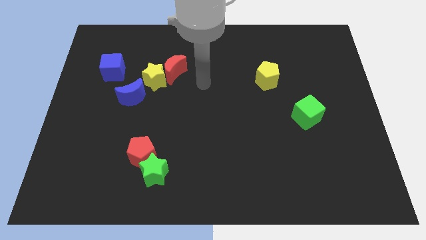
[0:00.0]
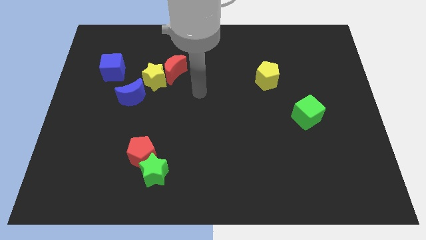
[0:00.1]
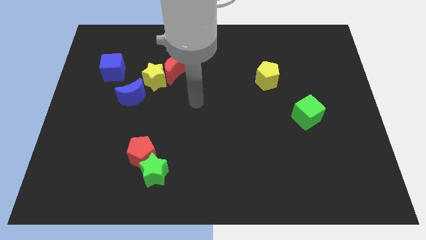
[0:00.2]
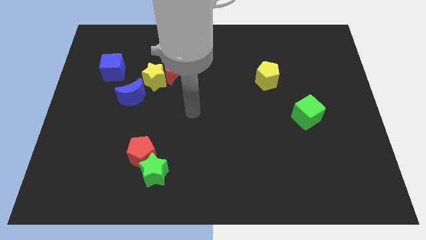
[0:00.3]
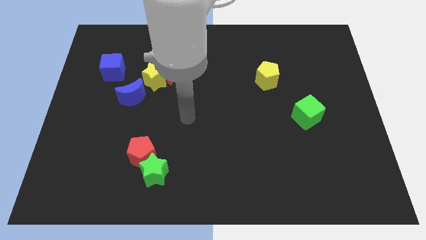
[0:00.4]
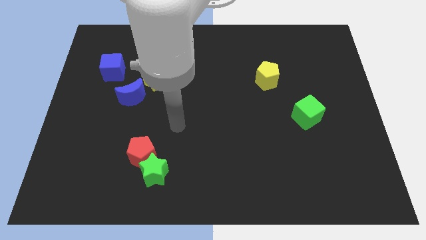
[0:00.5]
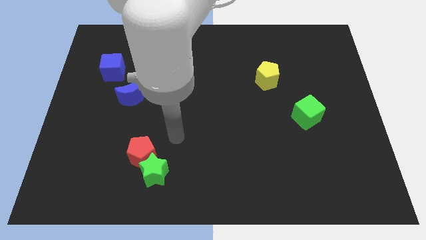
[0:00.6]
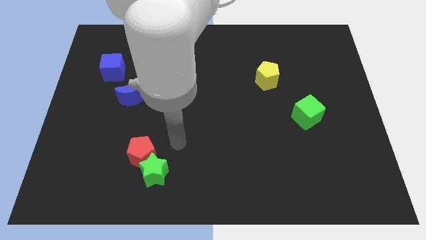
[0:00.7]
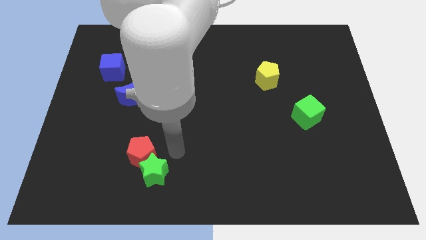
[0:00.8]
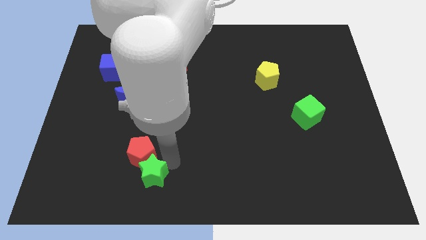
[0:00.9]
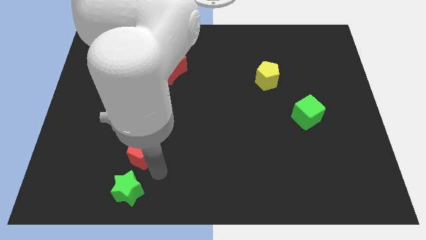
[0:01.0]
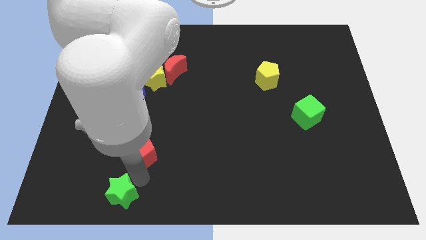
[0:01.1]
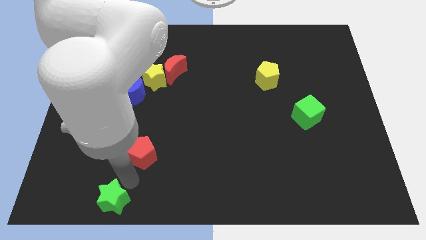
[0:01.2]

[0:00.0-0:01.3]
pull the red pentagon apart from the green star

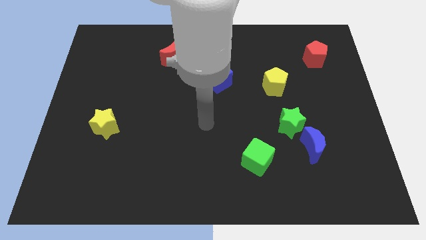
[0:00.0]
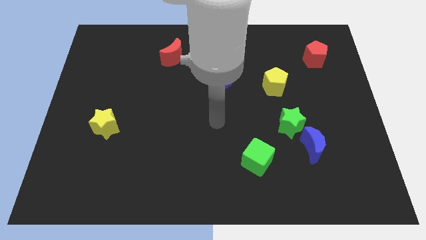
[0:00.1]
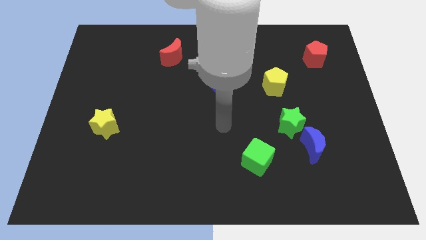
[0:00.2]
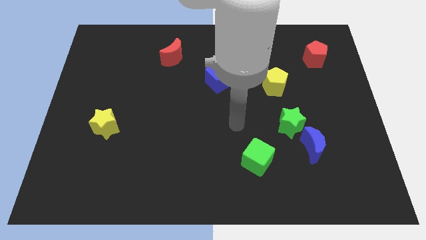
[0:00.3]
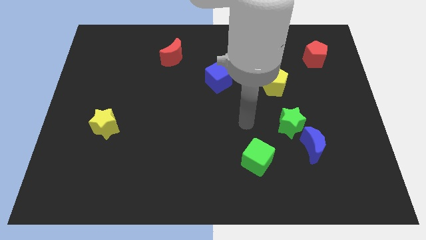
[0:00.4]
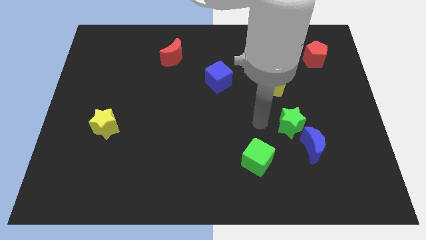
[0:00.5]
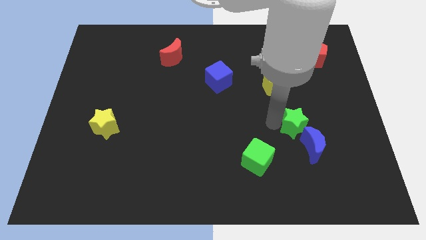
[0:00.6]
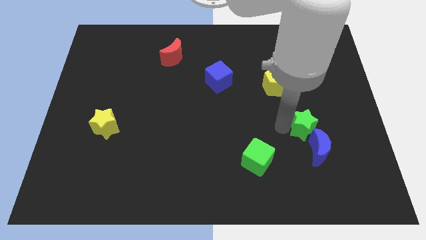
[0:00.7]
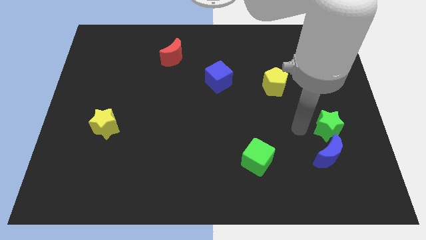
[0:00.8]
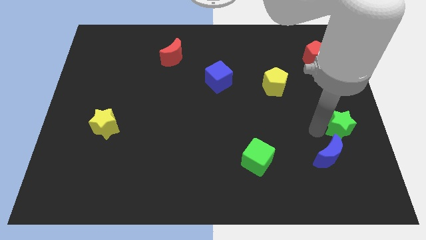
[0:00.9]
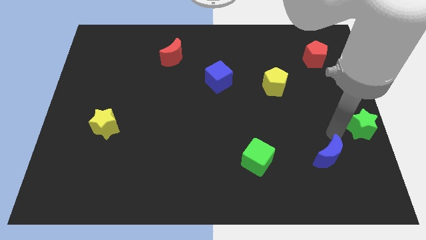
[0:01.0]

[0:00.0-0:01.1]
pull the blue moon apart from the green star

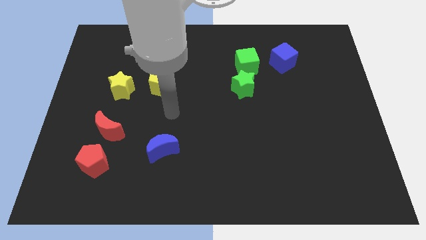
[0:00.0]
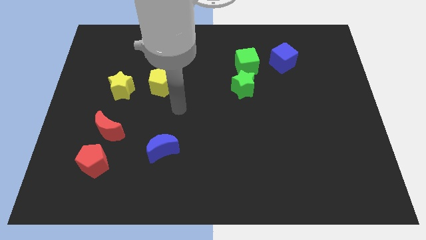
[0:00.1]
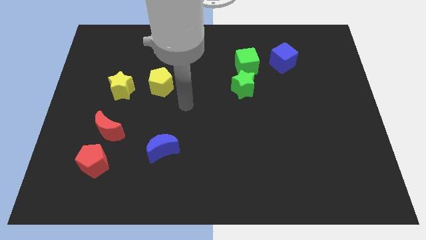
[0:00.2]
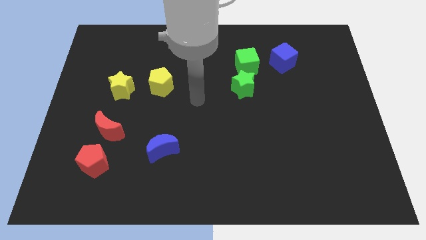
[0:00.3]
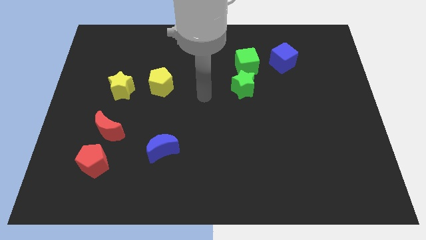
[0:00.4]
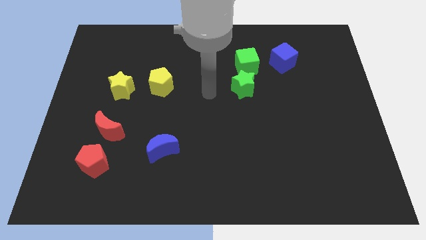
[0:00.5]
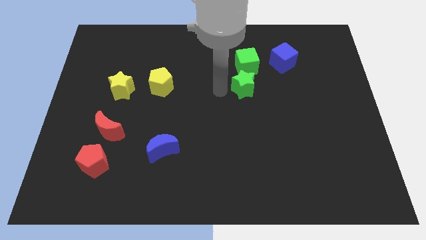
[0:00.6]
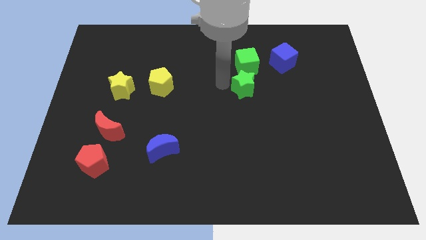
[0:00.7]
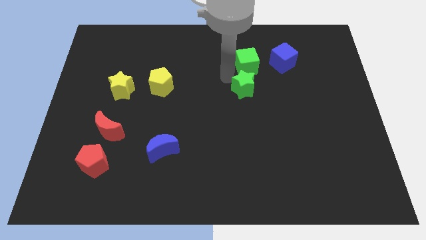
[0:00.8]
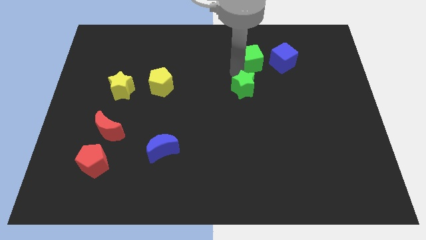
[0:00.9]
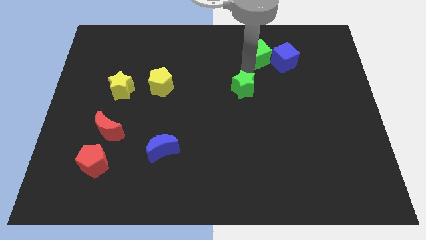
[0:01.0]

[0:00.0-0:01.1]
move the green star away from the green cube

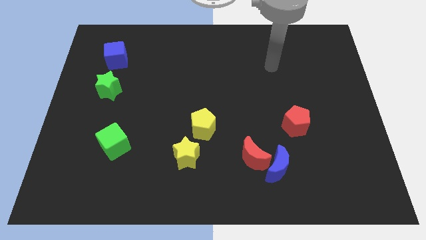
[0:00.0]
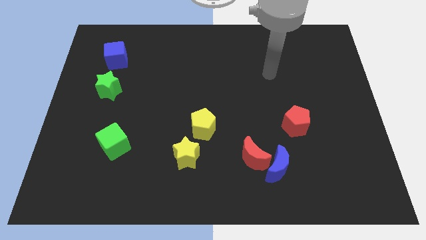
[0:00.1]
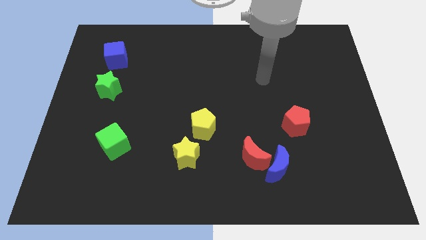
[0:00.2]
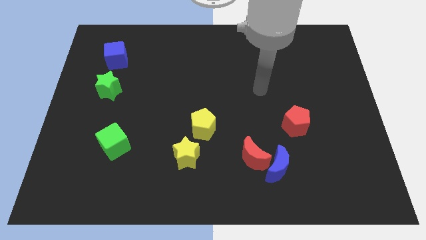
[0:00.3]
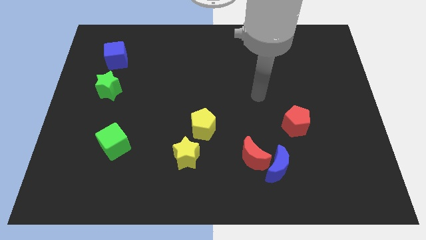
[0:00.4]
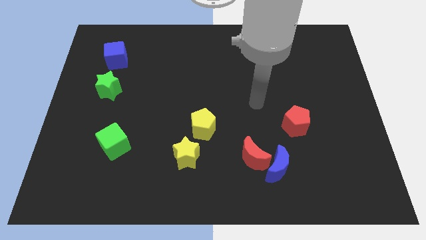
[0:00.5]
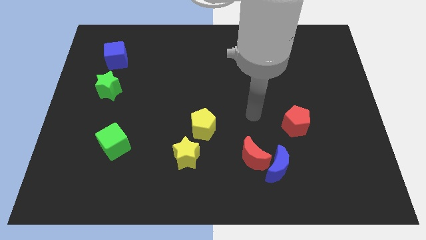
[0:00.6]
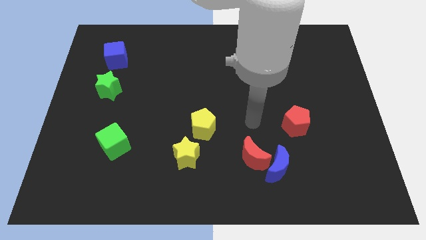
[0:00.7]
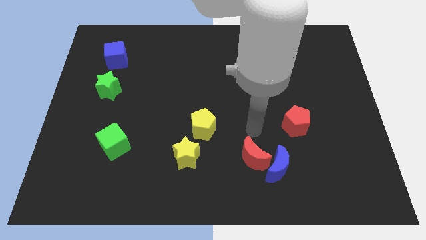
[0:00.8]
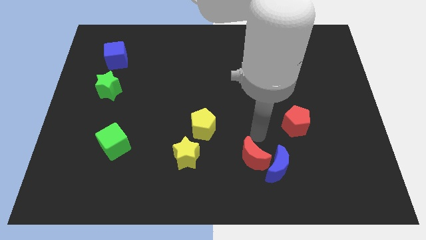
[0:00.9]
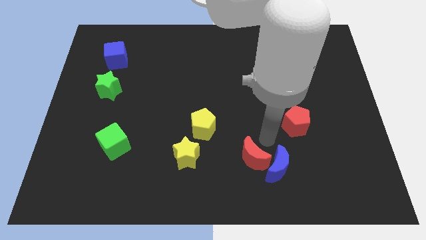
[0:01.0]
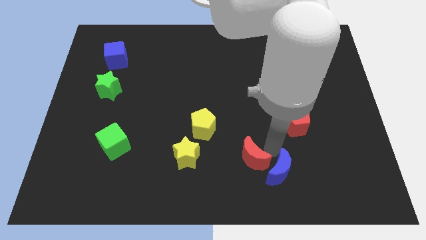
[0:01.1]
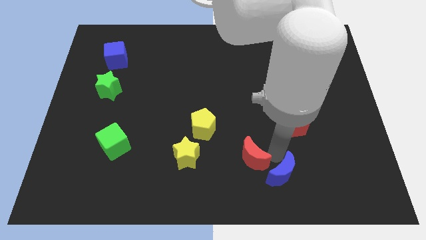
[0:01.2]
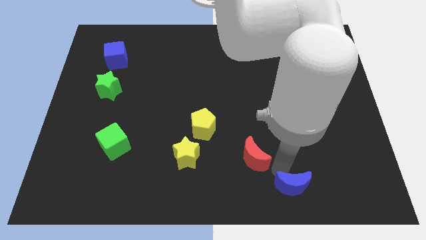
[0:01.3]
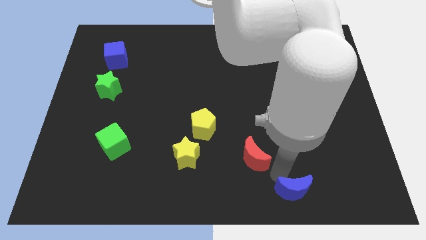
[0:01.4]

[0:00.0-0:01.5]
pull the red moon apart from the blue moon

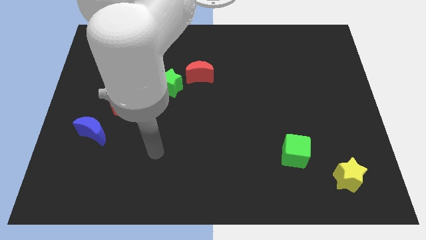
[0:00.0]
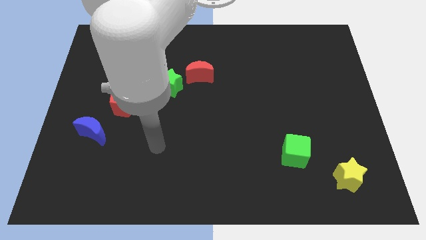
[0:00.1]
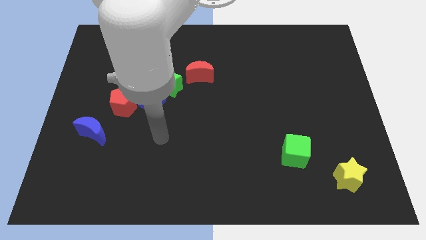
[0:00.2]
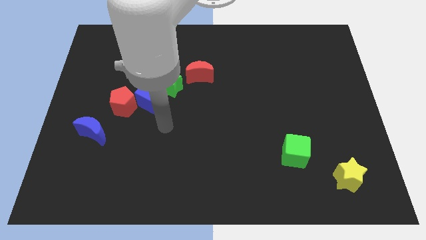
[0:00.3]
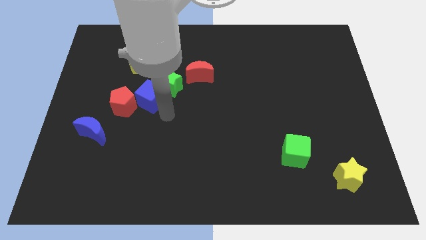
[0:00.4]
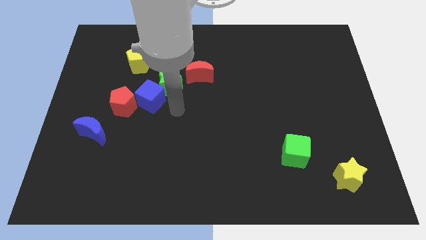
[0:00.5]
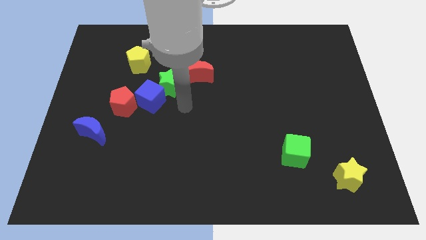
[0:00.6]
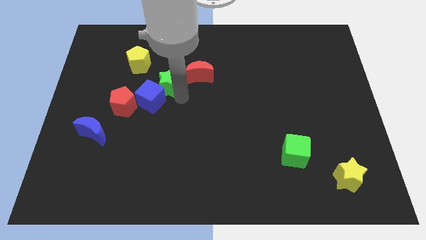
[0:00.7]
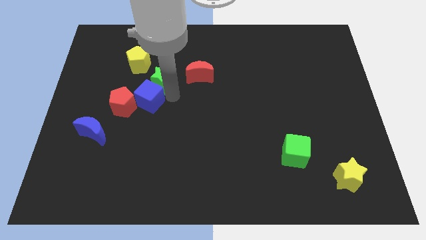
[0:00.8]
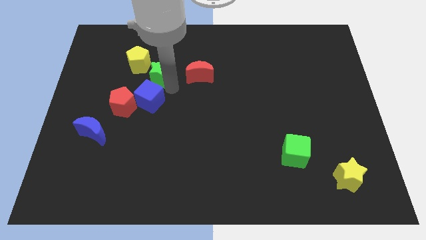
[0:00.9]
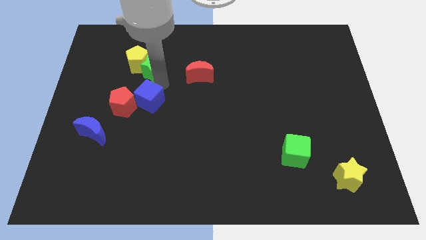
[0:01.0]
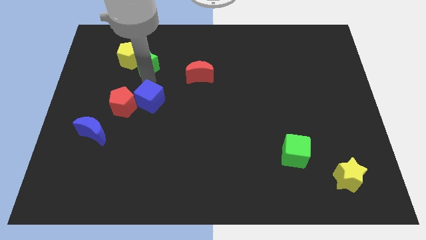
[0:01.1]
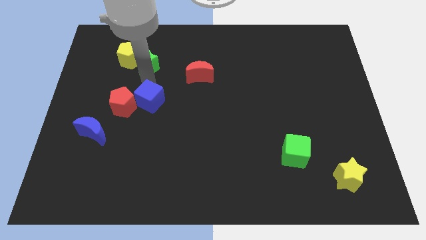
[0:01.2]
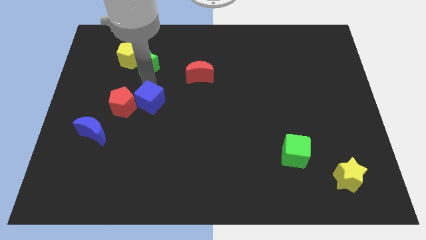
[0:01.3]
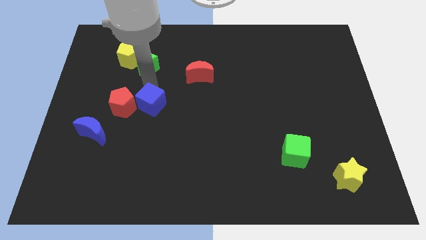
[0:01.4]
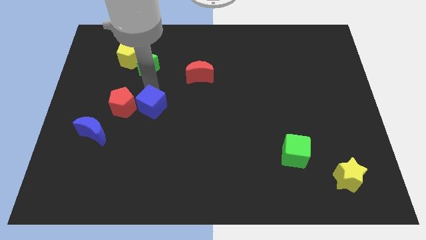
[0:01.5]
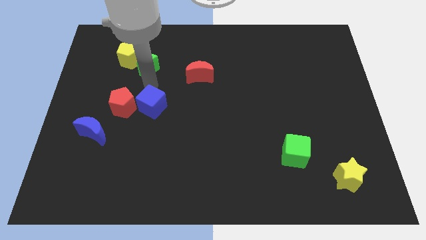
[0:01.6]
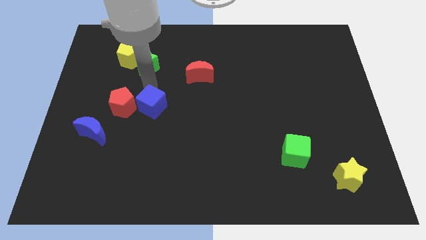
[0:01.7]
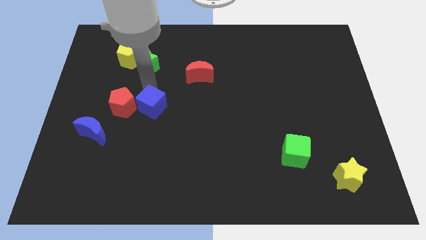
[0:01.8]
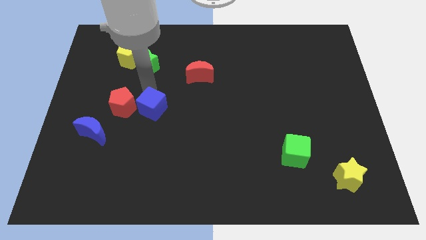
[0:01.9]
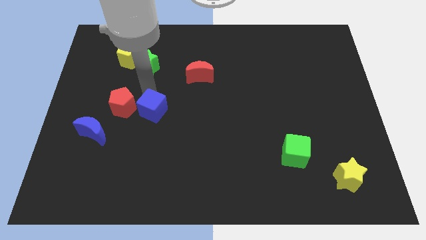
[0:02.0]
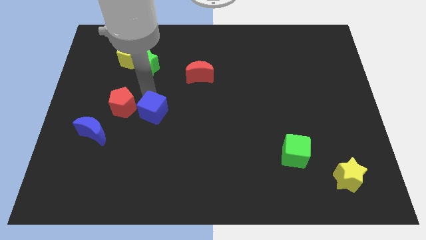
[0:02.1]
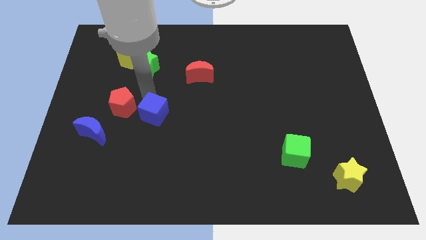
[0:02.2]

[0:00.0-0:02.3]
pull the blue cube apart from the green star and red pentagon

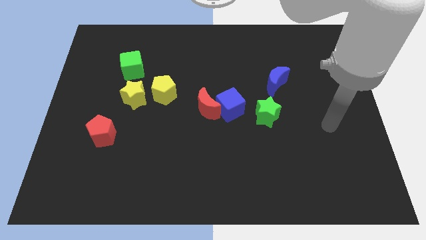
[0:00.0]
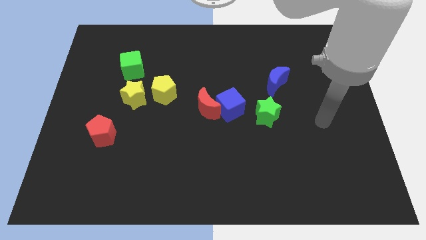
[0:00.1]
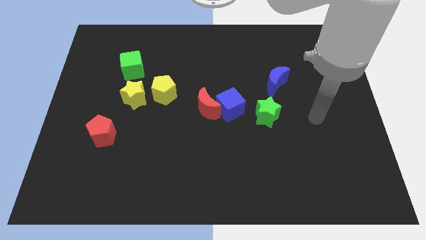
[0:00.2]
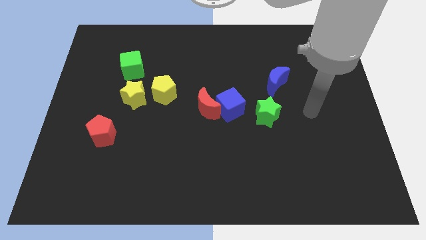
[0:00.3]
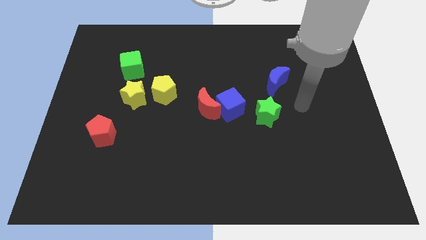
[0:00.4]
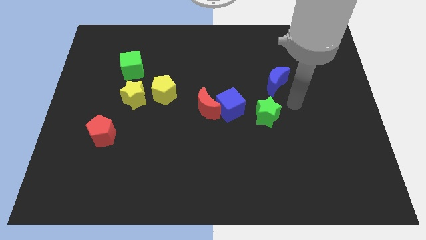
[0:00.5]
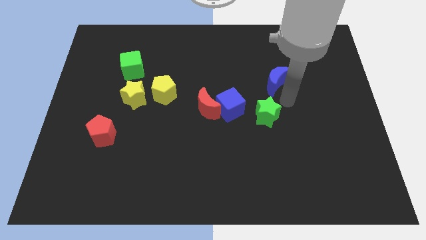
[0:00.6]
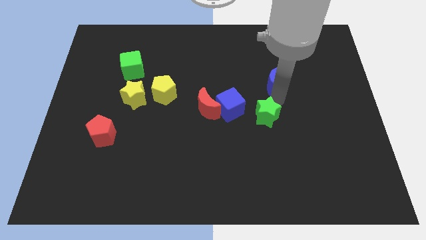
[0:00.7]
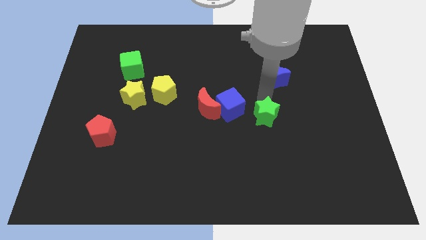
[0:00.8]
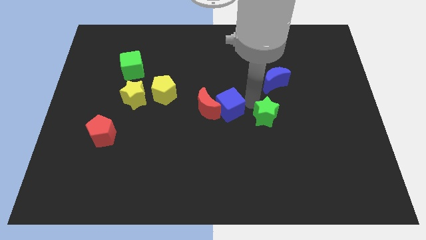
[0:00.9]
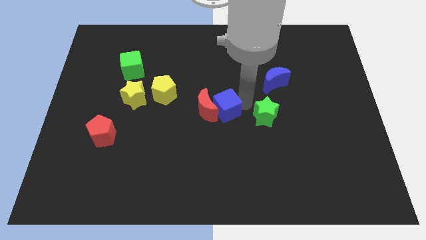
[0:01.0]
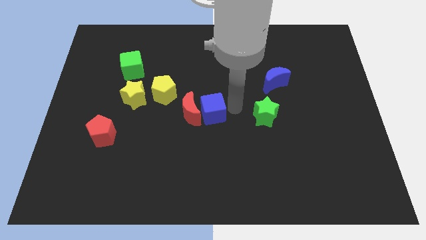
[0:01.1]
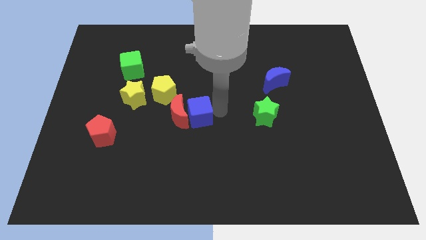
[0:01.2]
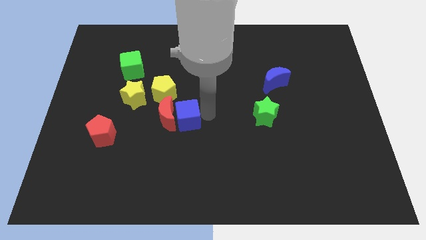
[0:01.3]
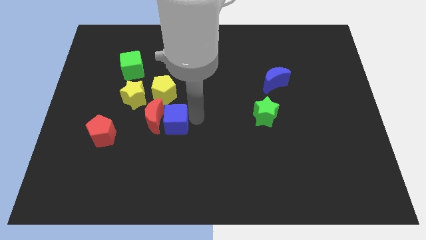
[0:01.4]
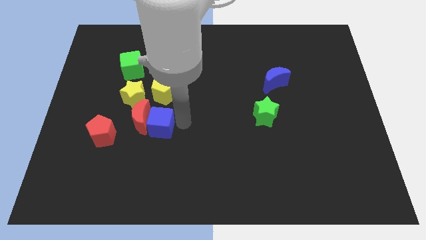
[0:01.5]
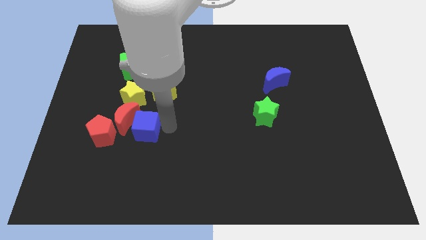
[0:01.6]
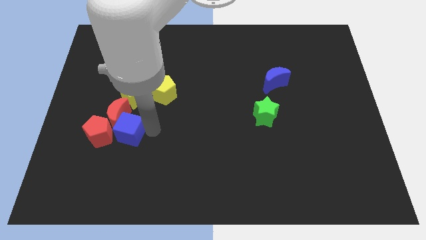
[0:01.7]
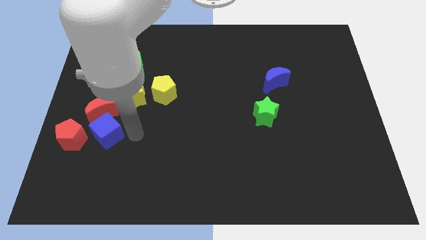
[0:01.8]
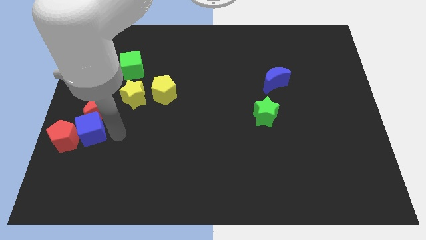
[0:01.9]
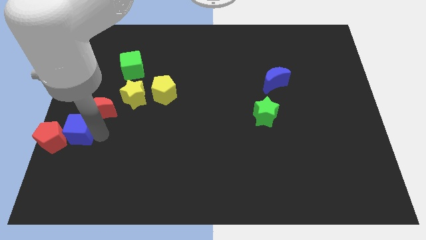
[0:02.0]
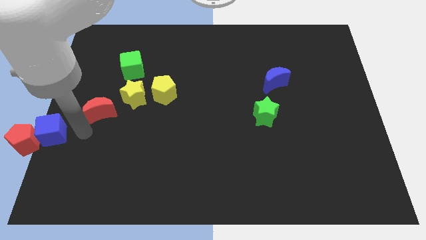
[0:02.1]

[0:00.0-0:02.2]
pull the red moon apart from the blue cube

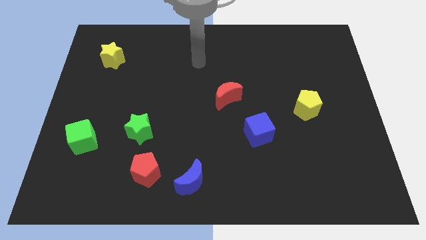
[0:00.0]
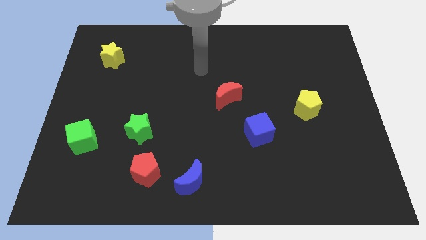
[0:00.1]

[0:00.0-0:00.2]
pull the red pentagon apart from the blue moon
